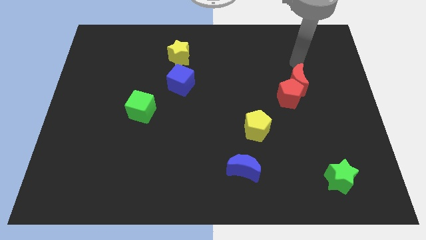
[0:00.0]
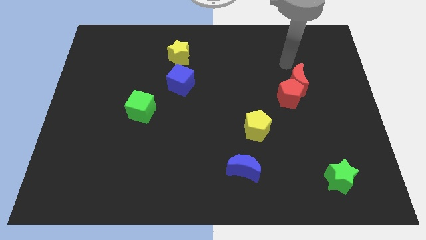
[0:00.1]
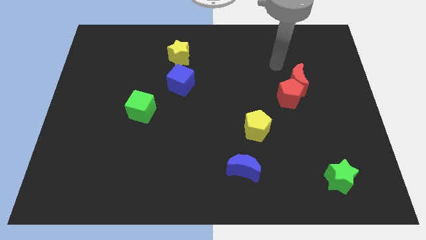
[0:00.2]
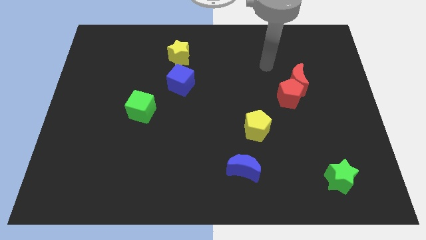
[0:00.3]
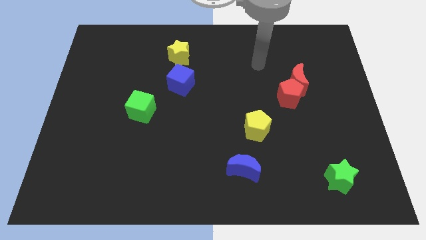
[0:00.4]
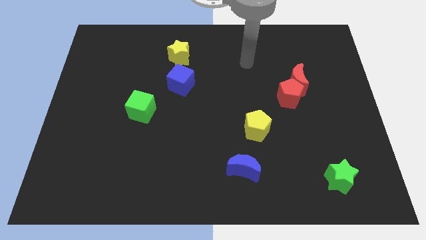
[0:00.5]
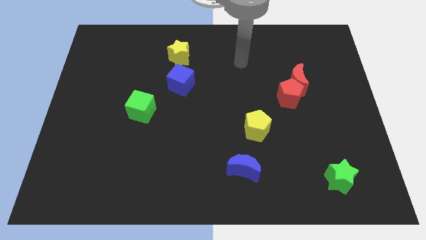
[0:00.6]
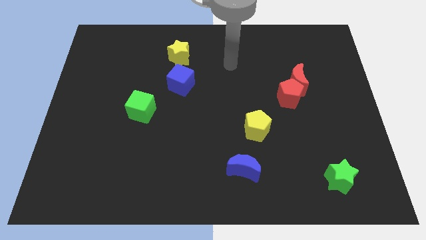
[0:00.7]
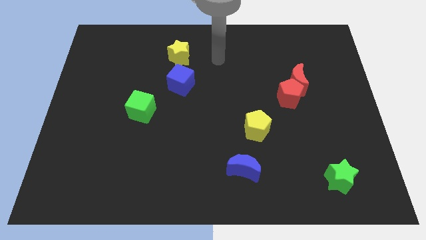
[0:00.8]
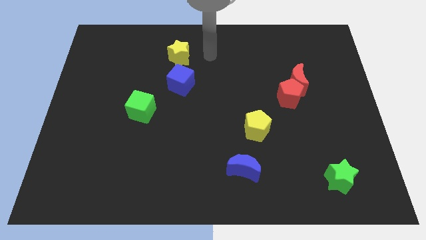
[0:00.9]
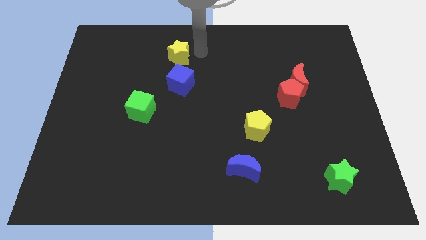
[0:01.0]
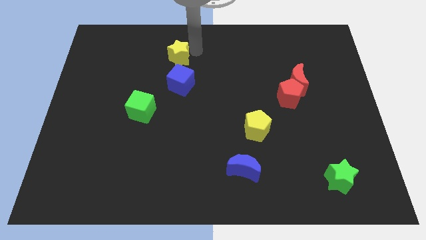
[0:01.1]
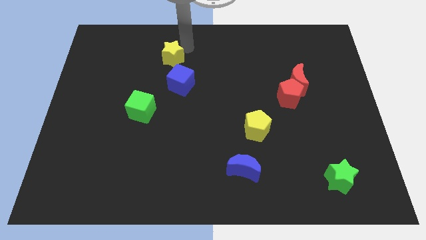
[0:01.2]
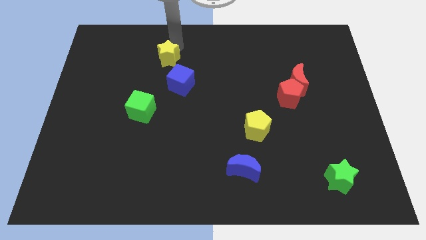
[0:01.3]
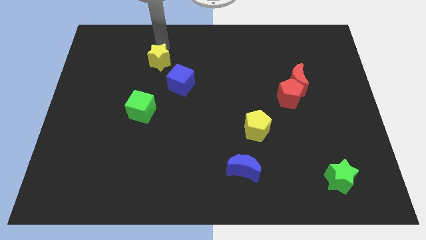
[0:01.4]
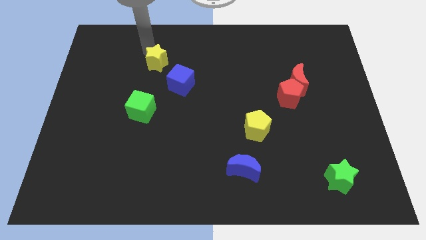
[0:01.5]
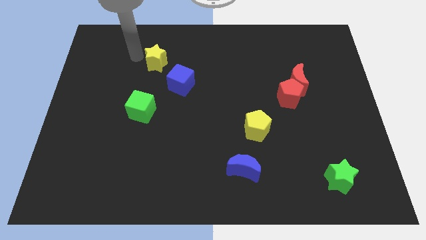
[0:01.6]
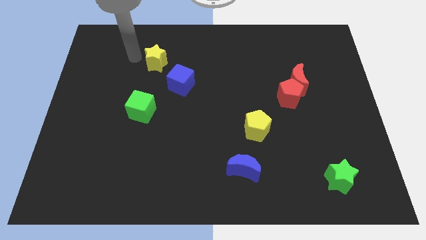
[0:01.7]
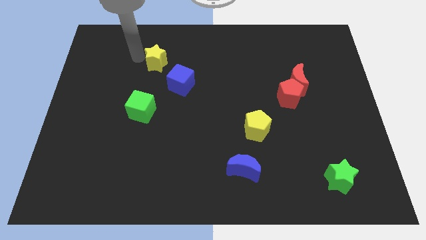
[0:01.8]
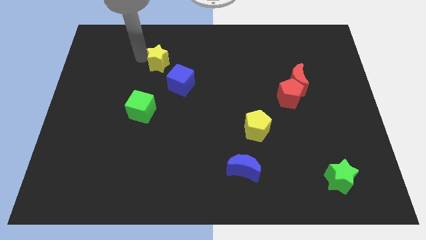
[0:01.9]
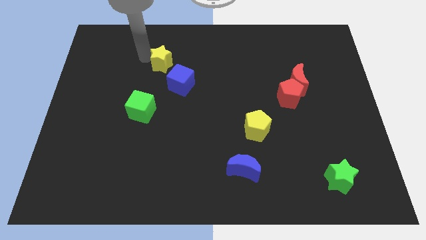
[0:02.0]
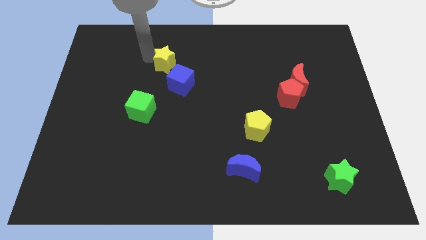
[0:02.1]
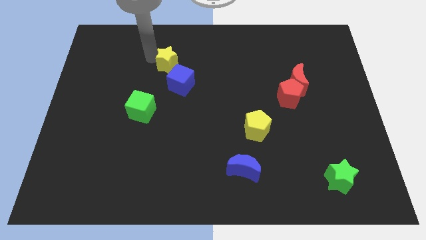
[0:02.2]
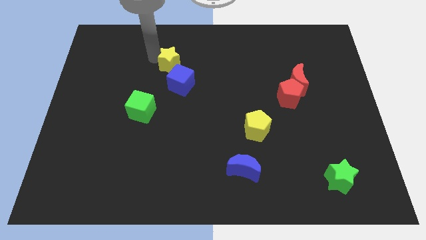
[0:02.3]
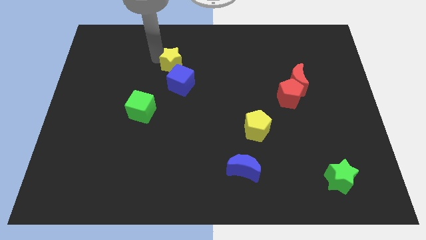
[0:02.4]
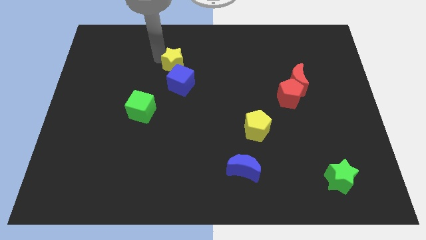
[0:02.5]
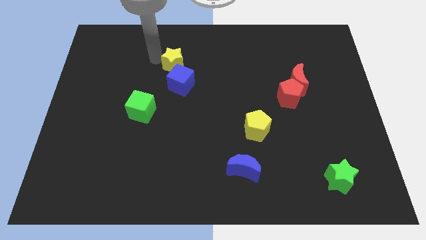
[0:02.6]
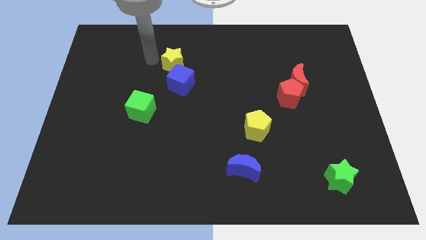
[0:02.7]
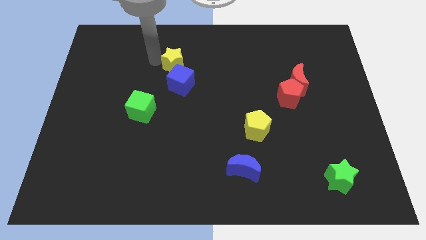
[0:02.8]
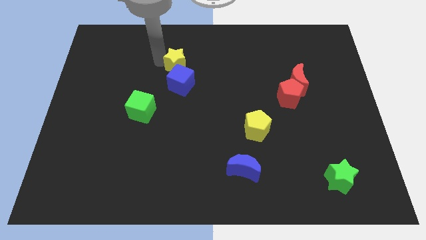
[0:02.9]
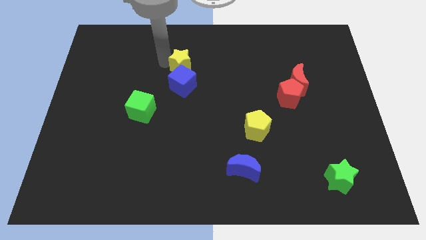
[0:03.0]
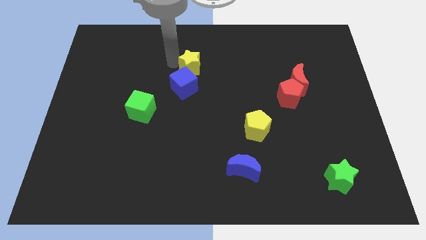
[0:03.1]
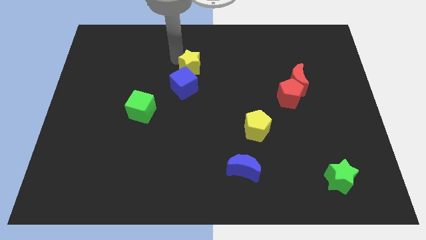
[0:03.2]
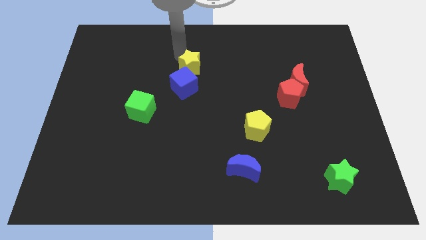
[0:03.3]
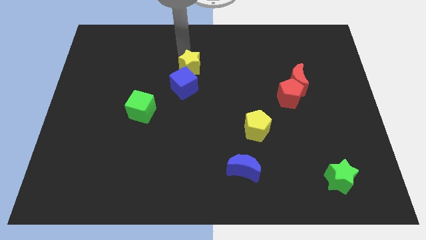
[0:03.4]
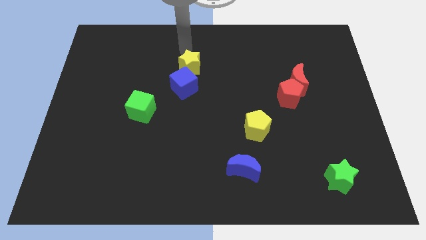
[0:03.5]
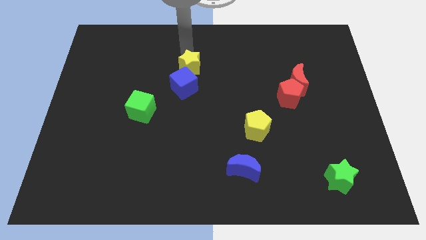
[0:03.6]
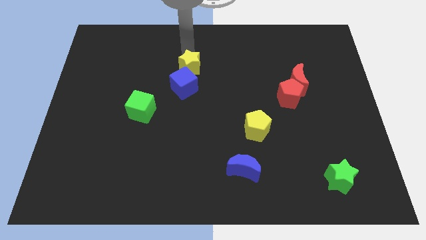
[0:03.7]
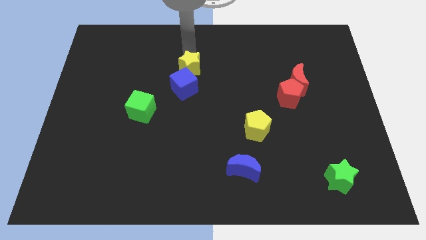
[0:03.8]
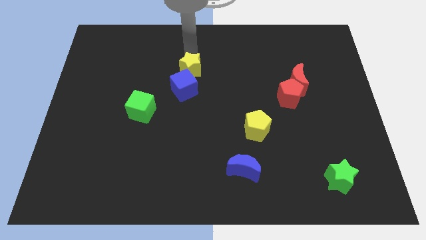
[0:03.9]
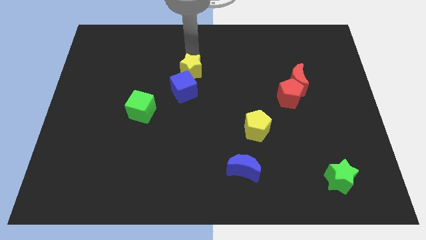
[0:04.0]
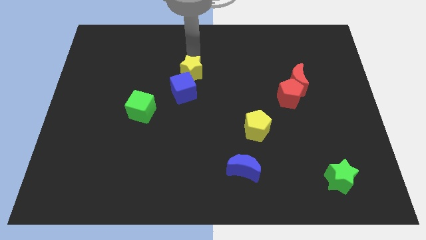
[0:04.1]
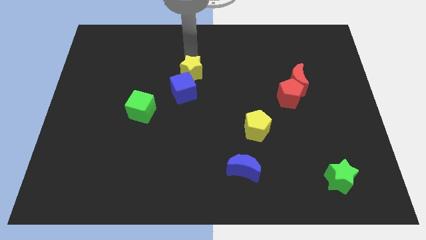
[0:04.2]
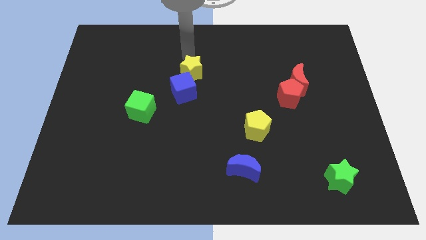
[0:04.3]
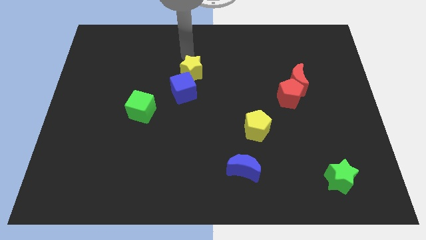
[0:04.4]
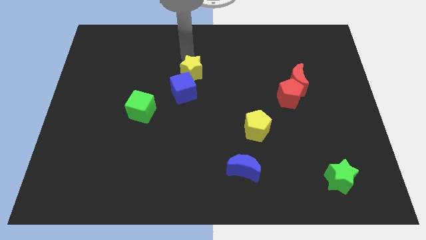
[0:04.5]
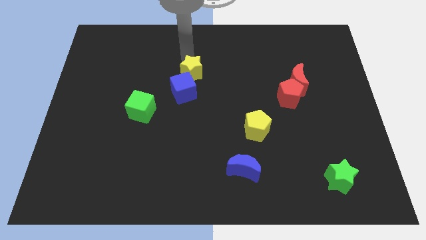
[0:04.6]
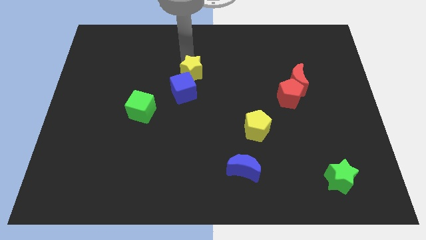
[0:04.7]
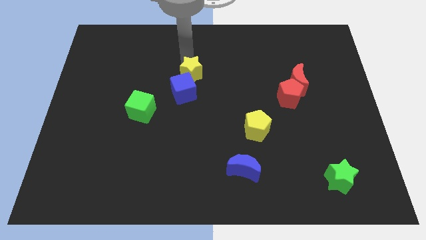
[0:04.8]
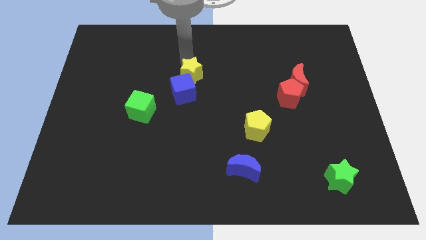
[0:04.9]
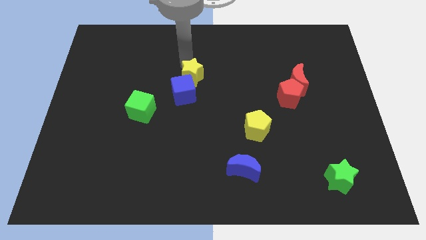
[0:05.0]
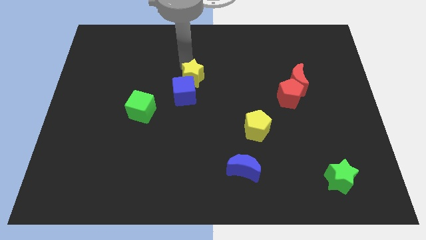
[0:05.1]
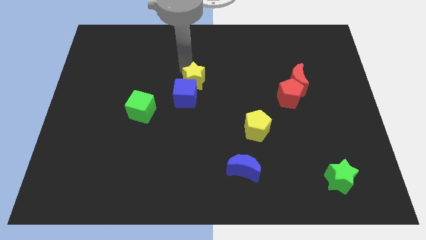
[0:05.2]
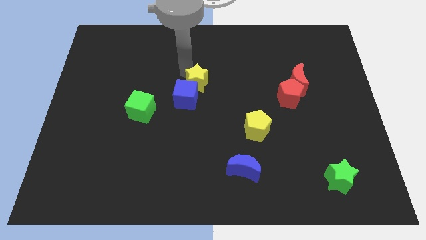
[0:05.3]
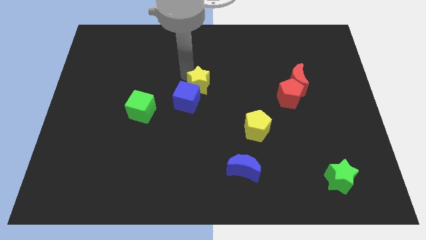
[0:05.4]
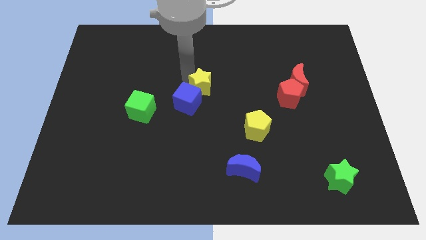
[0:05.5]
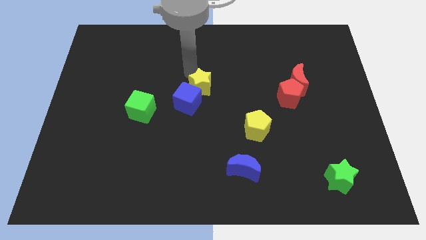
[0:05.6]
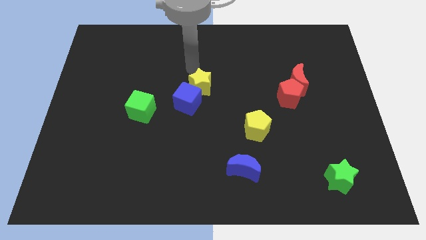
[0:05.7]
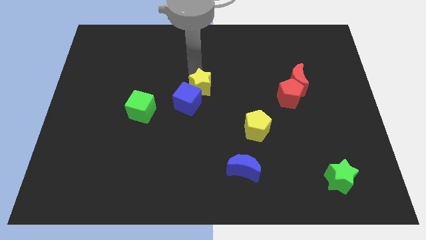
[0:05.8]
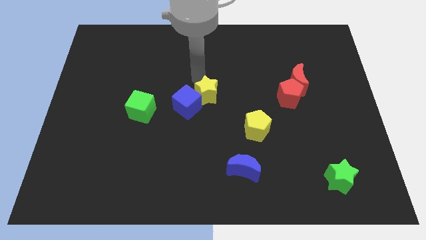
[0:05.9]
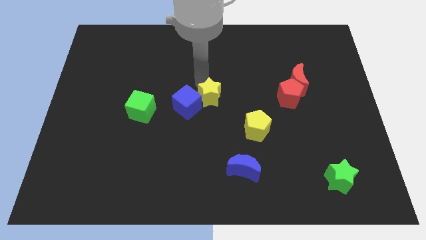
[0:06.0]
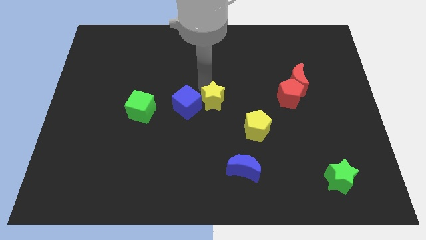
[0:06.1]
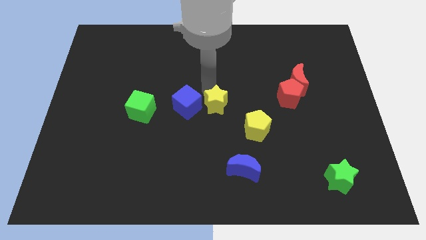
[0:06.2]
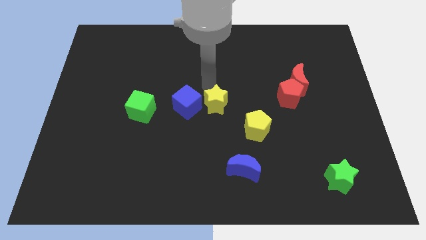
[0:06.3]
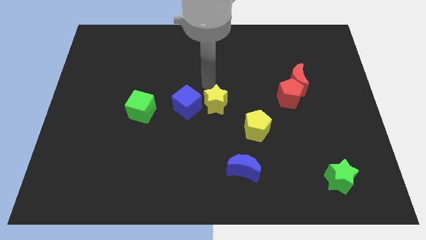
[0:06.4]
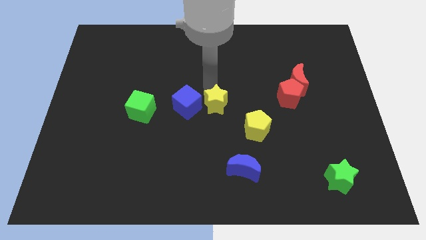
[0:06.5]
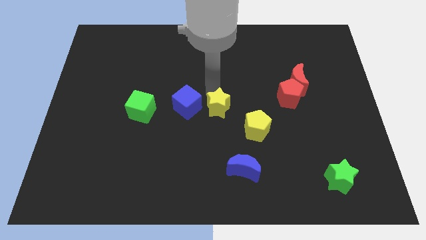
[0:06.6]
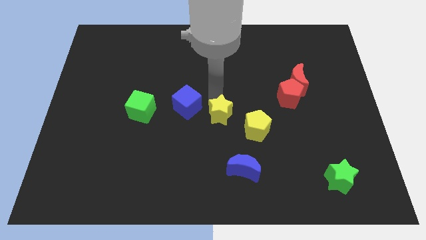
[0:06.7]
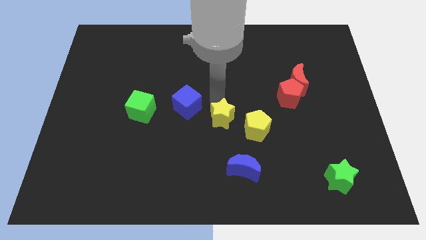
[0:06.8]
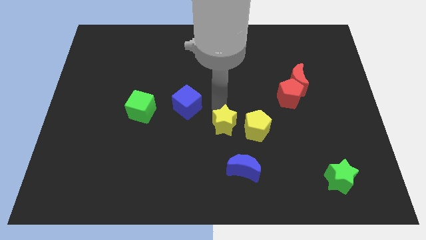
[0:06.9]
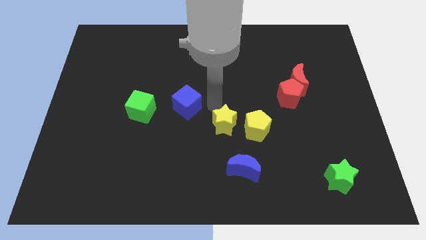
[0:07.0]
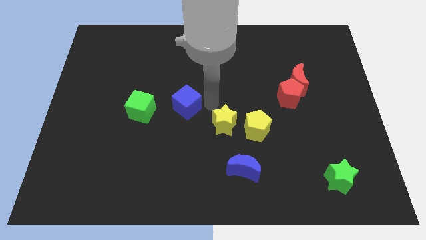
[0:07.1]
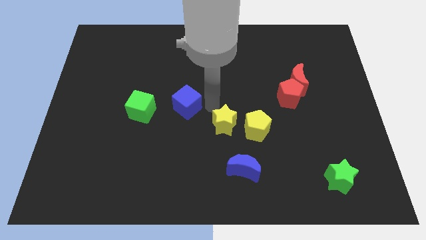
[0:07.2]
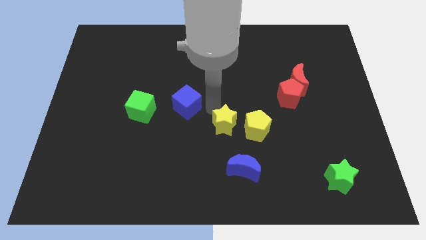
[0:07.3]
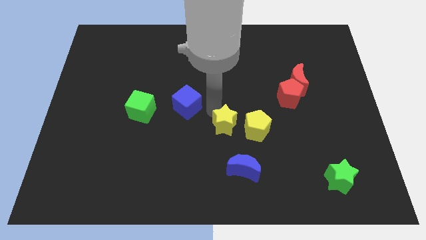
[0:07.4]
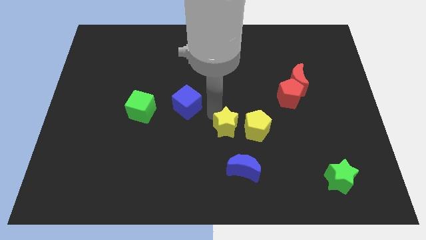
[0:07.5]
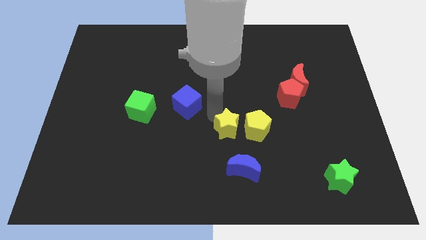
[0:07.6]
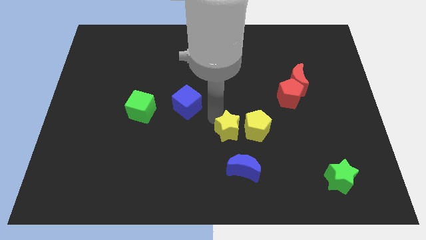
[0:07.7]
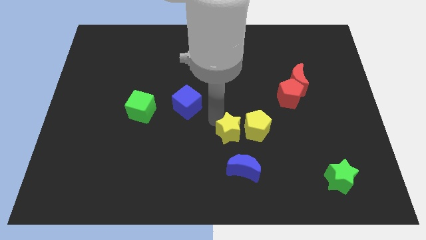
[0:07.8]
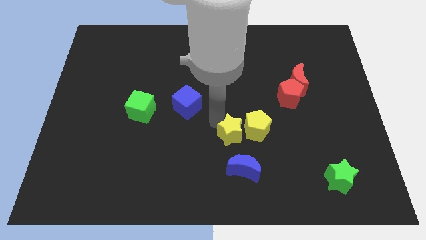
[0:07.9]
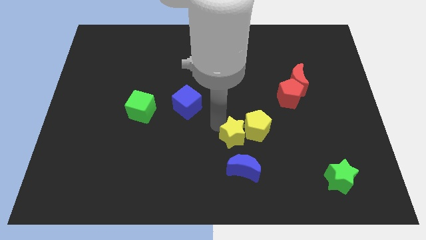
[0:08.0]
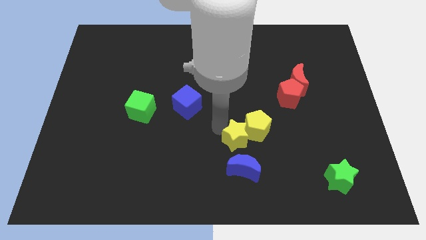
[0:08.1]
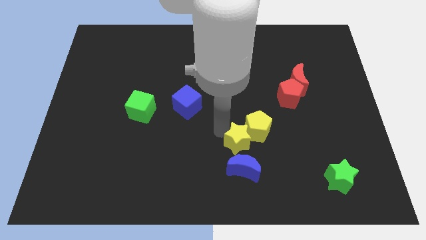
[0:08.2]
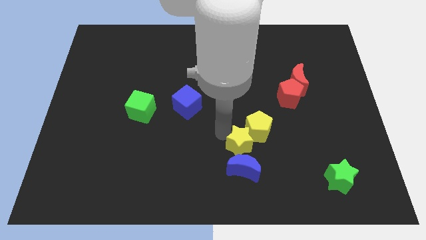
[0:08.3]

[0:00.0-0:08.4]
push the yellow star to the top right side of the blue moon
